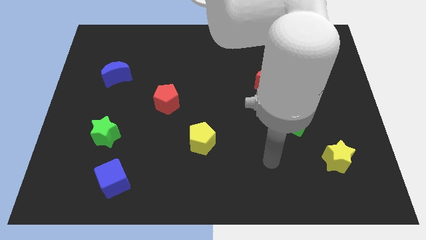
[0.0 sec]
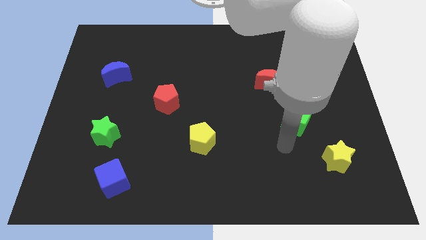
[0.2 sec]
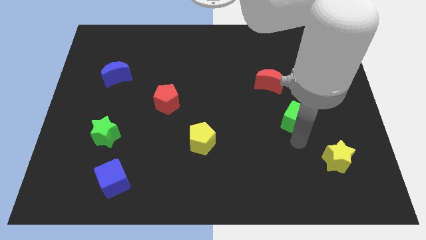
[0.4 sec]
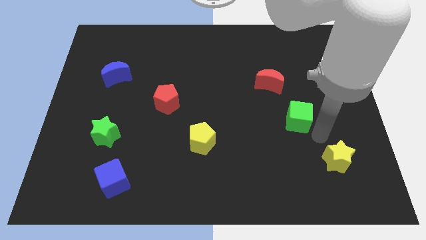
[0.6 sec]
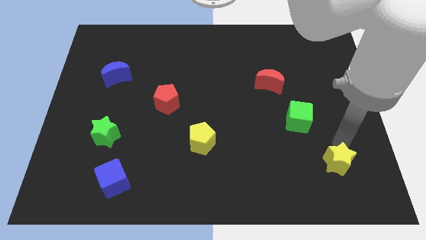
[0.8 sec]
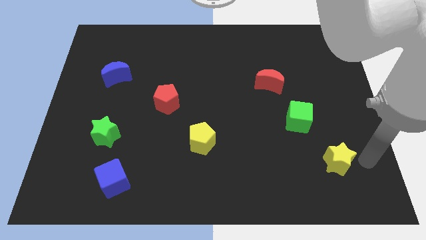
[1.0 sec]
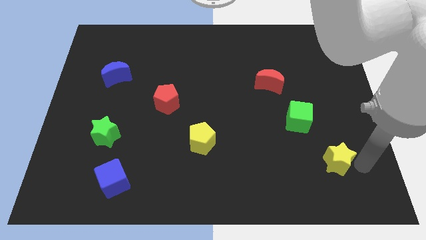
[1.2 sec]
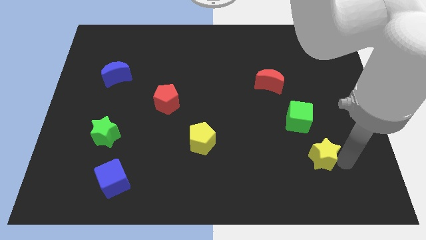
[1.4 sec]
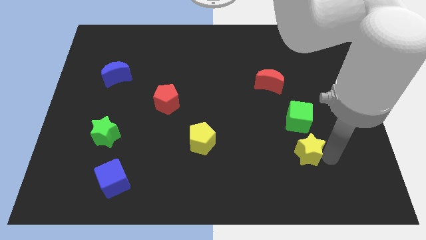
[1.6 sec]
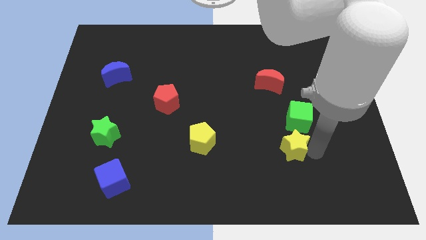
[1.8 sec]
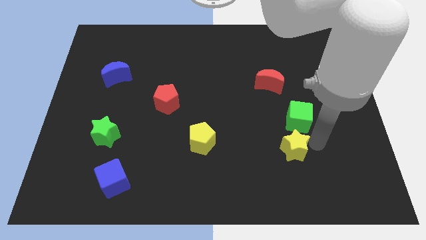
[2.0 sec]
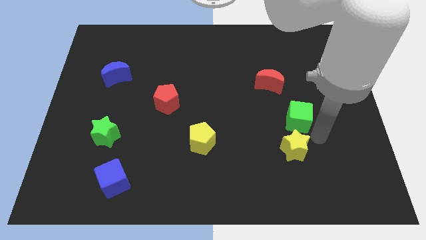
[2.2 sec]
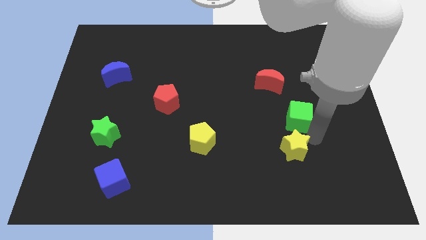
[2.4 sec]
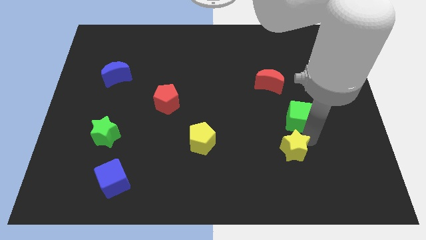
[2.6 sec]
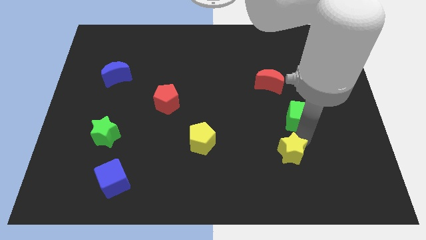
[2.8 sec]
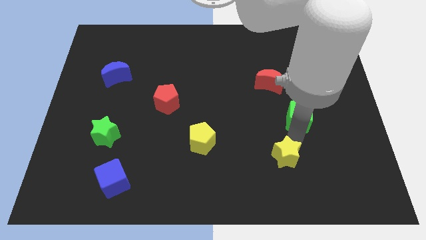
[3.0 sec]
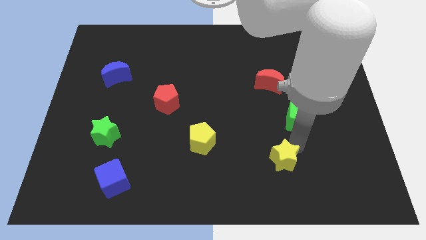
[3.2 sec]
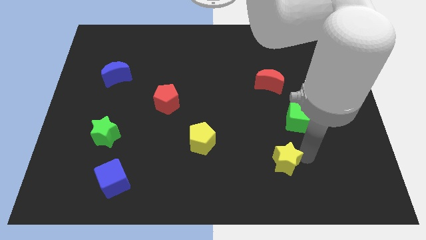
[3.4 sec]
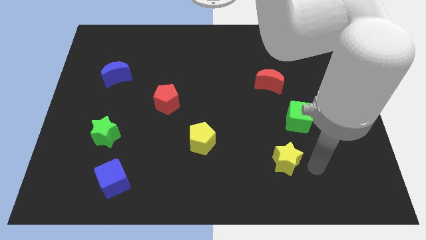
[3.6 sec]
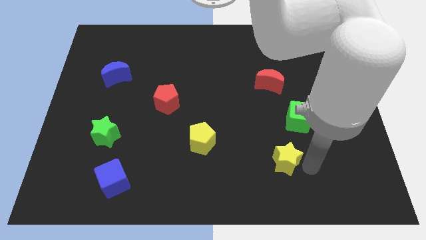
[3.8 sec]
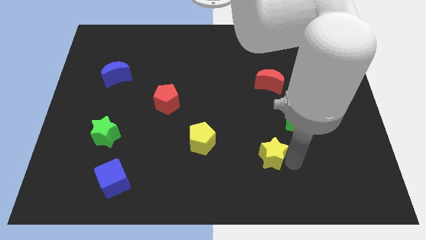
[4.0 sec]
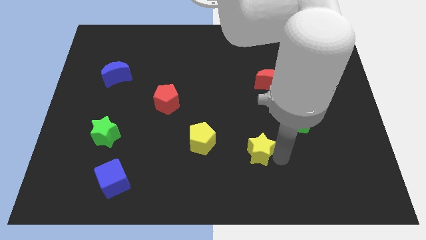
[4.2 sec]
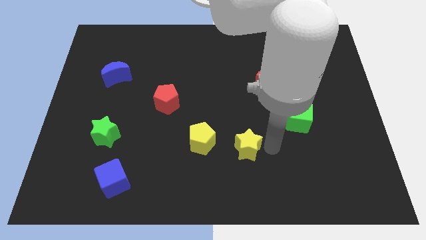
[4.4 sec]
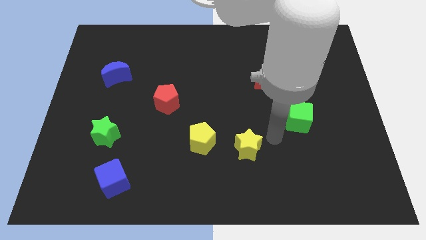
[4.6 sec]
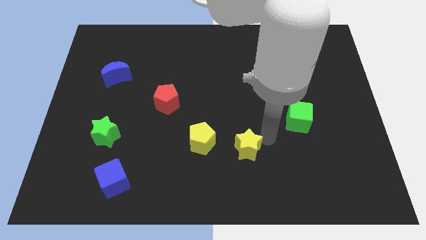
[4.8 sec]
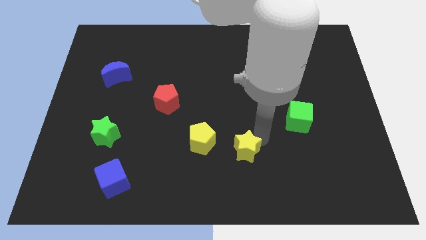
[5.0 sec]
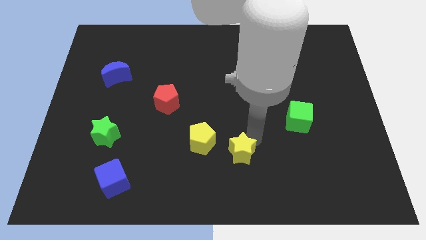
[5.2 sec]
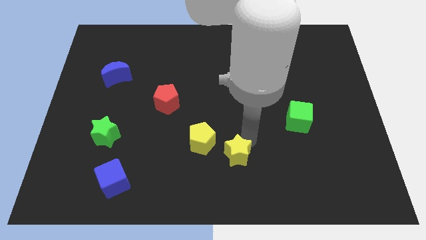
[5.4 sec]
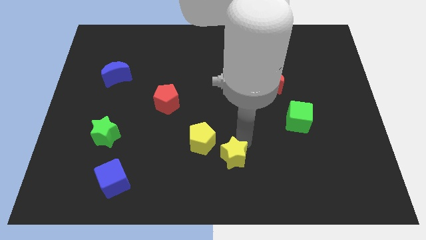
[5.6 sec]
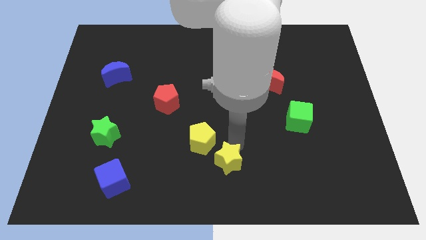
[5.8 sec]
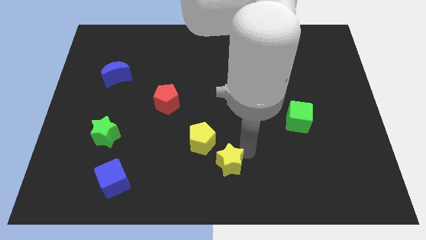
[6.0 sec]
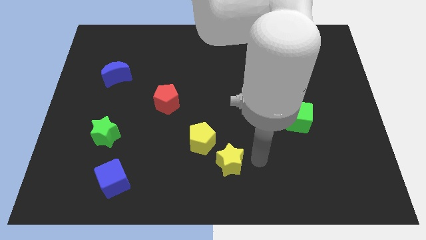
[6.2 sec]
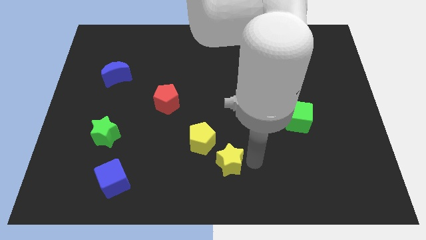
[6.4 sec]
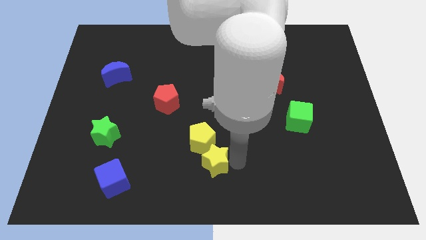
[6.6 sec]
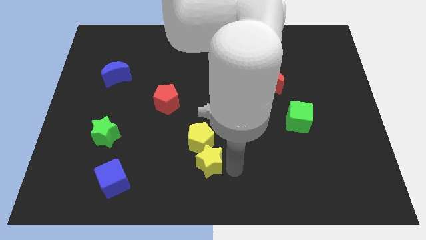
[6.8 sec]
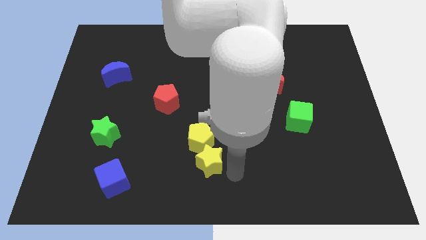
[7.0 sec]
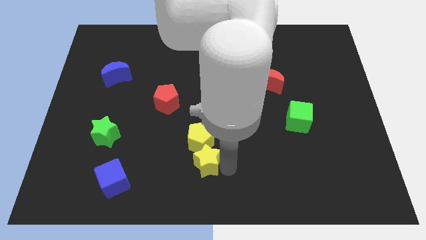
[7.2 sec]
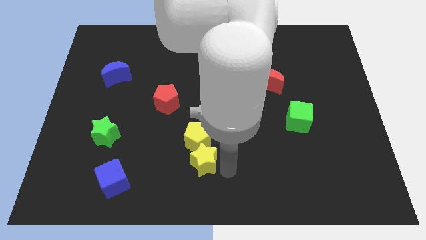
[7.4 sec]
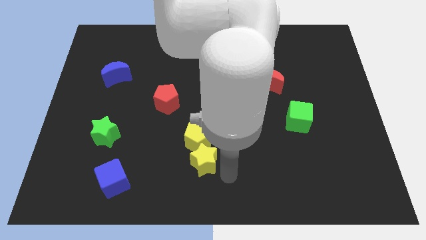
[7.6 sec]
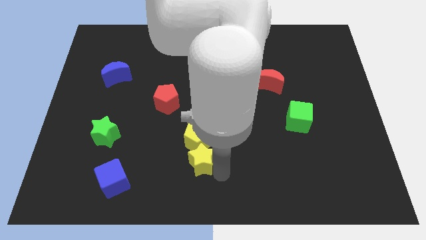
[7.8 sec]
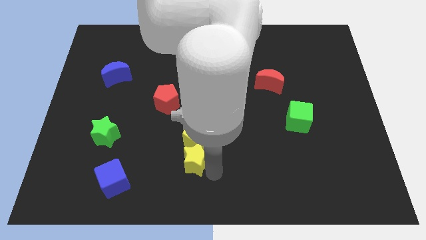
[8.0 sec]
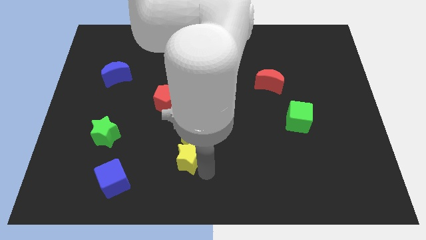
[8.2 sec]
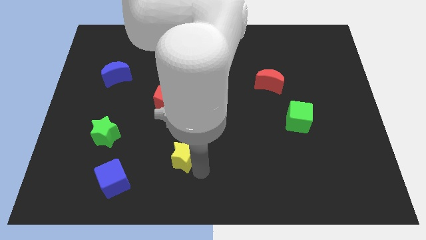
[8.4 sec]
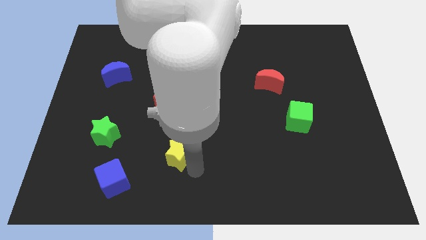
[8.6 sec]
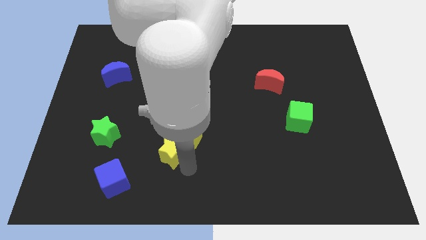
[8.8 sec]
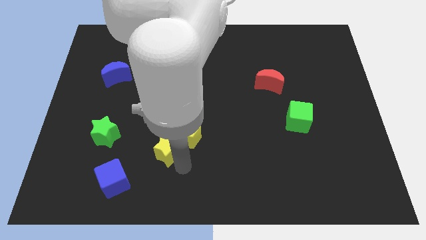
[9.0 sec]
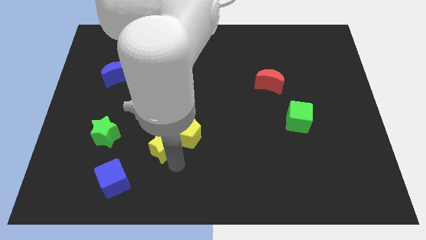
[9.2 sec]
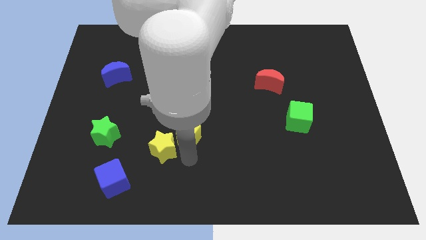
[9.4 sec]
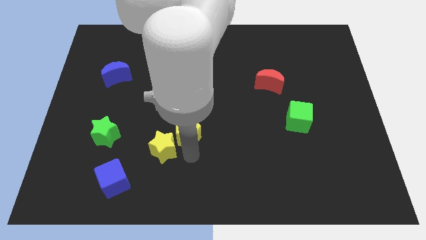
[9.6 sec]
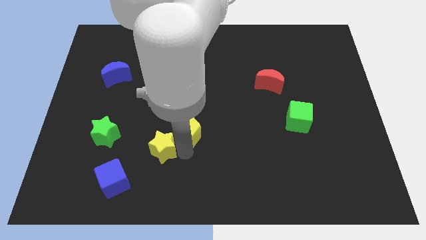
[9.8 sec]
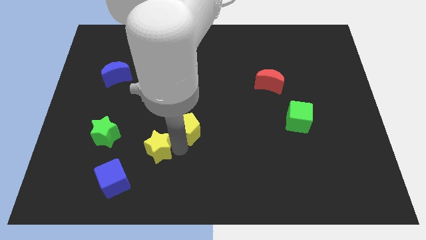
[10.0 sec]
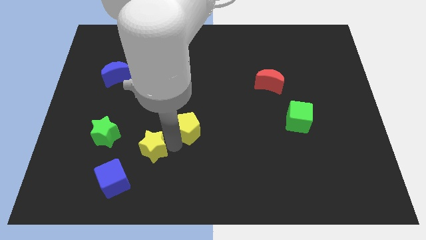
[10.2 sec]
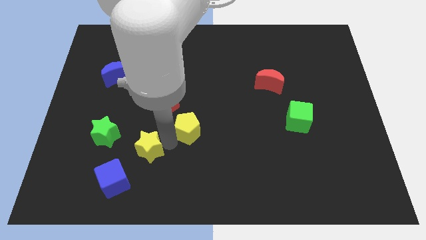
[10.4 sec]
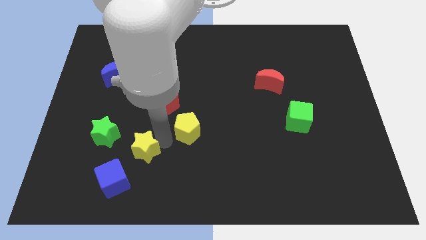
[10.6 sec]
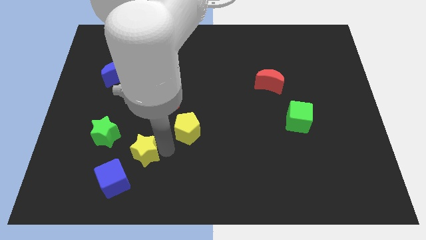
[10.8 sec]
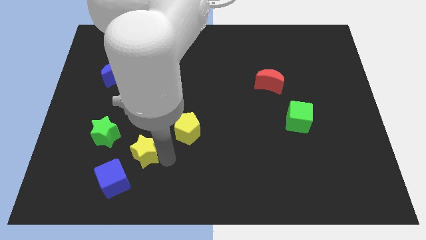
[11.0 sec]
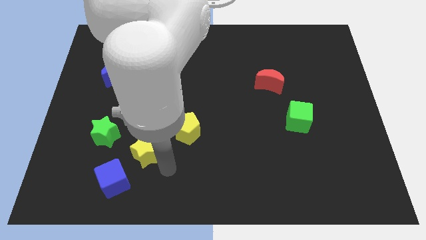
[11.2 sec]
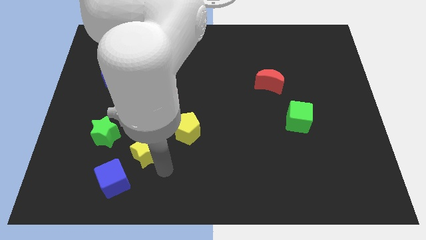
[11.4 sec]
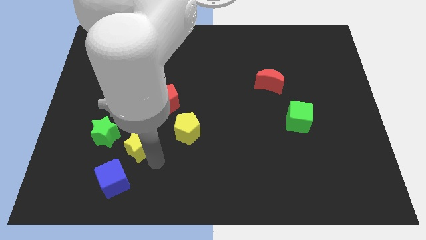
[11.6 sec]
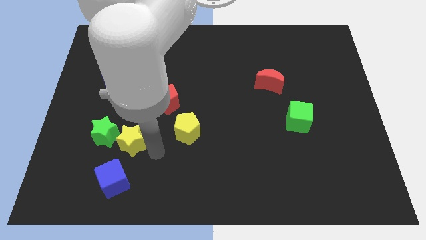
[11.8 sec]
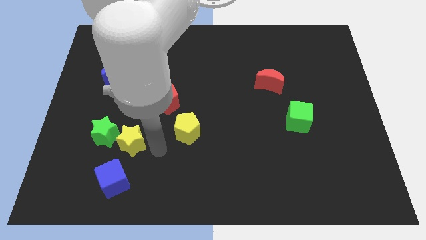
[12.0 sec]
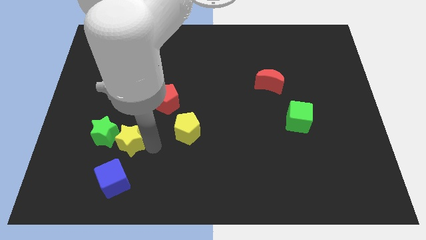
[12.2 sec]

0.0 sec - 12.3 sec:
move the yellow star towards the green star

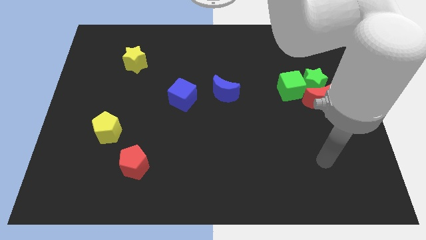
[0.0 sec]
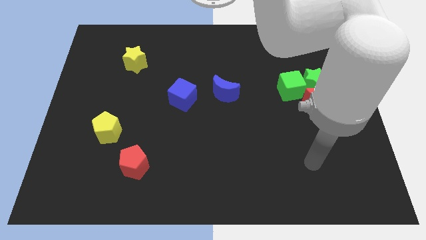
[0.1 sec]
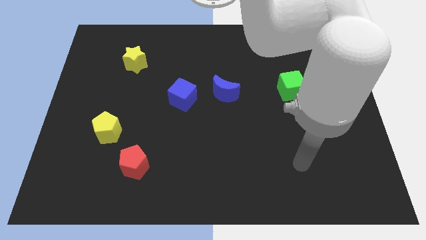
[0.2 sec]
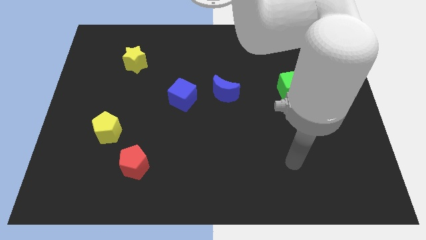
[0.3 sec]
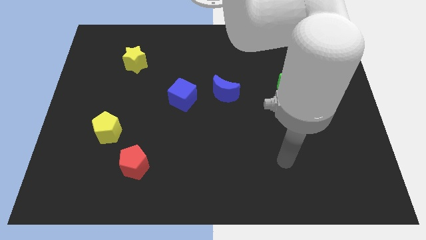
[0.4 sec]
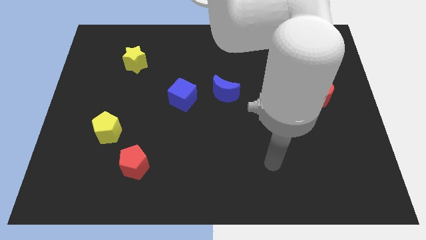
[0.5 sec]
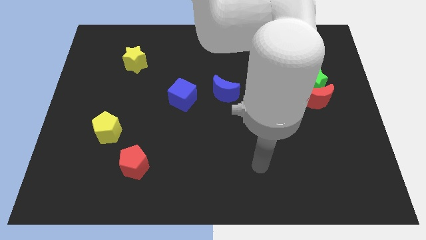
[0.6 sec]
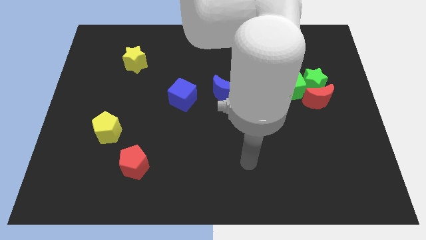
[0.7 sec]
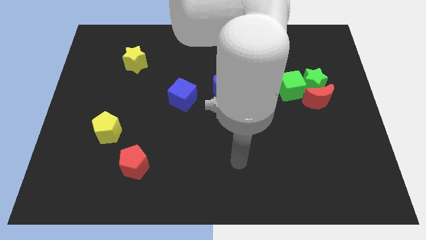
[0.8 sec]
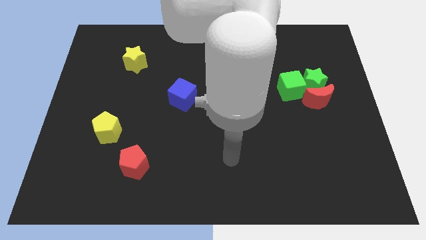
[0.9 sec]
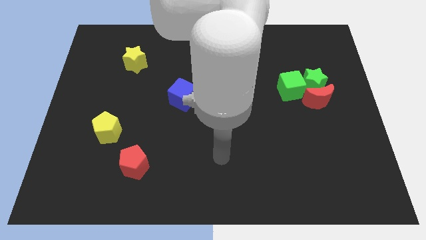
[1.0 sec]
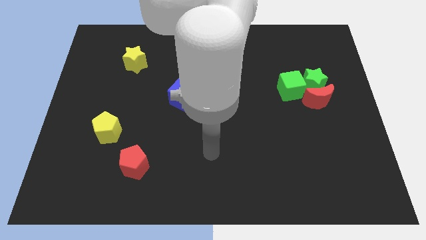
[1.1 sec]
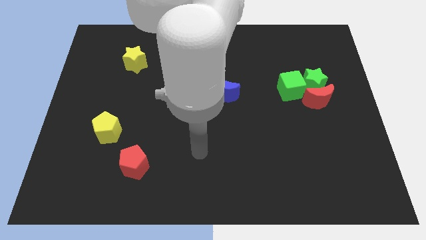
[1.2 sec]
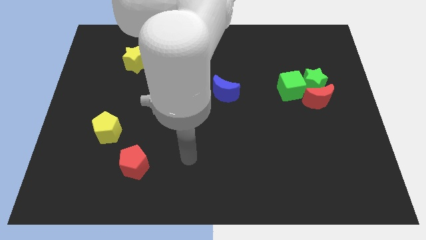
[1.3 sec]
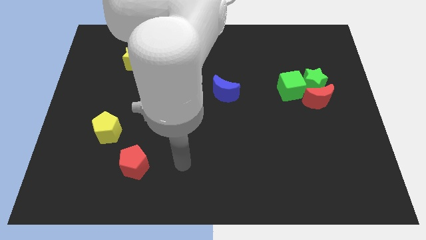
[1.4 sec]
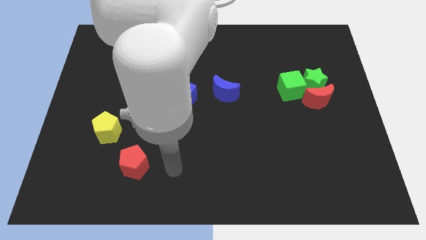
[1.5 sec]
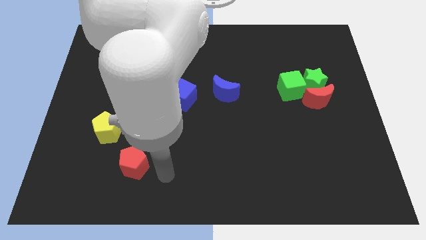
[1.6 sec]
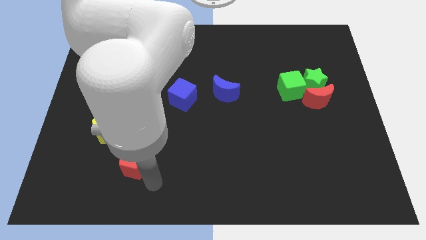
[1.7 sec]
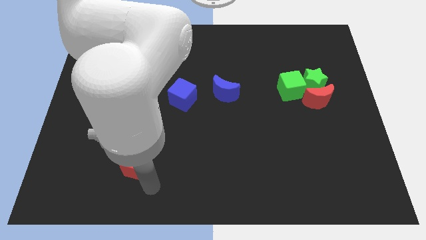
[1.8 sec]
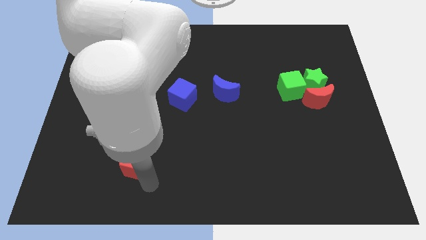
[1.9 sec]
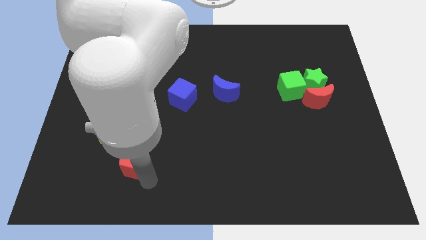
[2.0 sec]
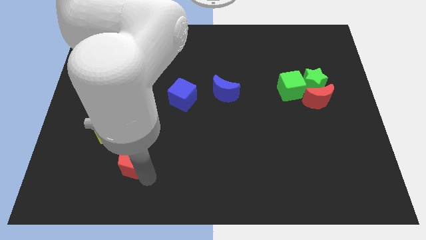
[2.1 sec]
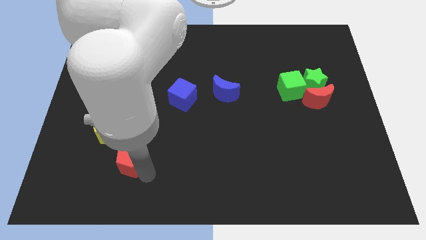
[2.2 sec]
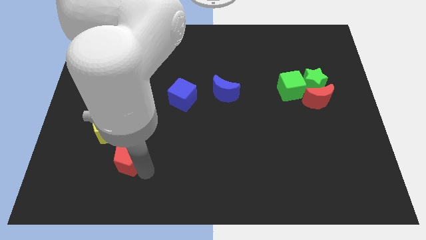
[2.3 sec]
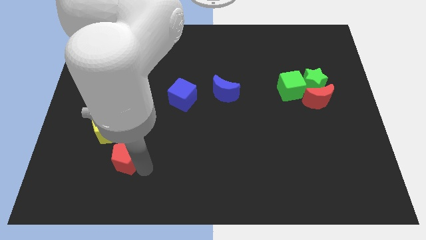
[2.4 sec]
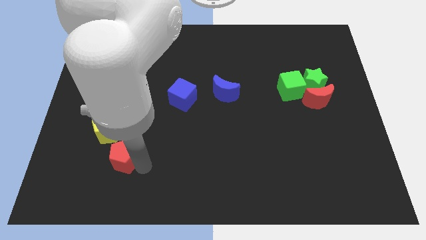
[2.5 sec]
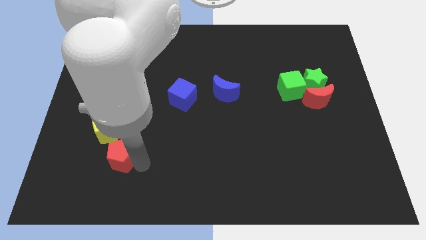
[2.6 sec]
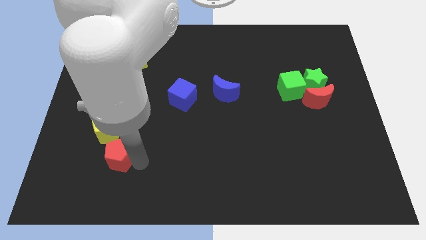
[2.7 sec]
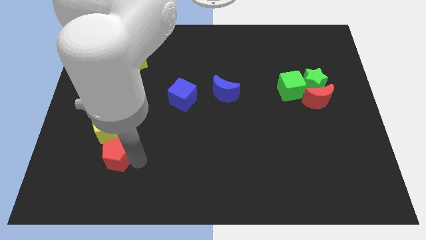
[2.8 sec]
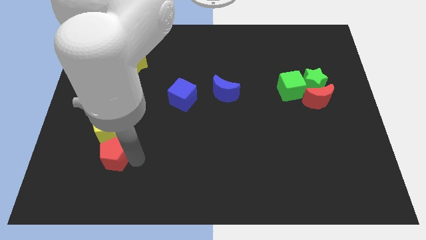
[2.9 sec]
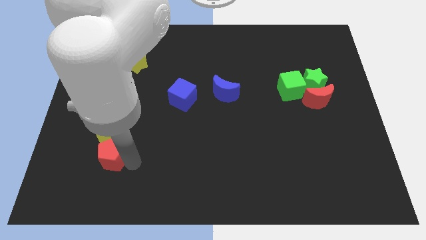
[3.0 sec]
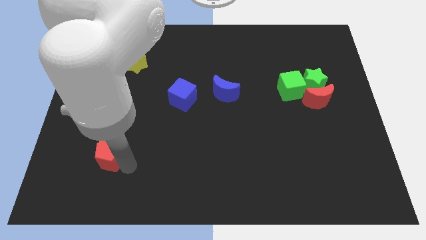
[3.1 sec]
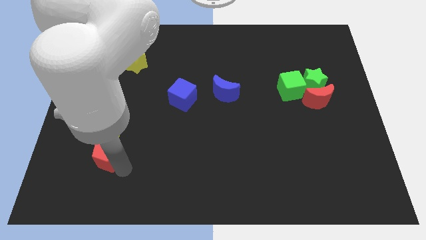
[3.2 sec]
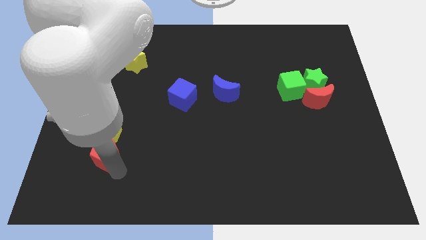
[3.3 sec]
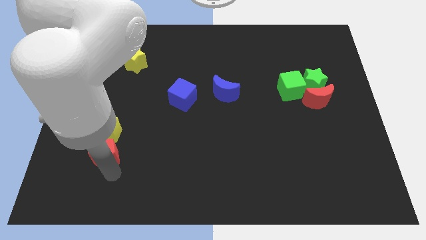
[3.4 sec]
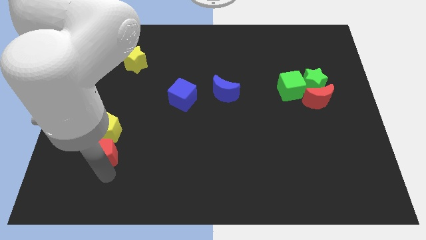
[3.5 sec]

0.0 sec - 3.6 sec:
move the red pentagon next to the yellow pentagon
